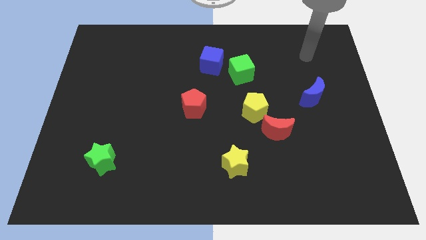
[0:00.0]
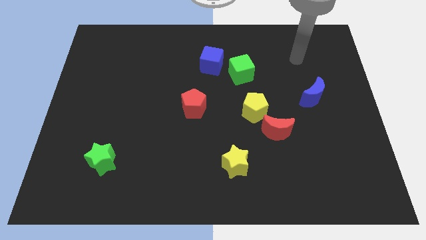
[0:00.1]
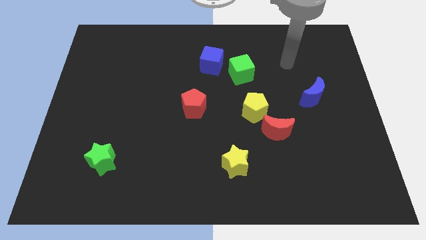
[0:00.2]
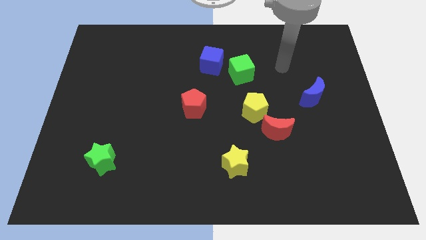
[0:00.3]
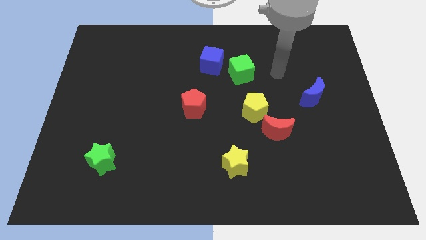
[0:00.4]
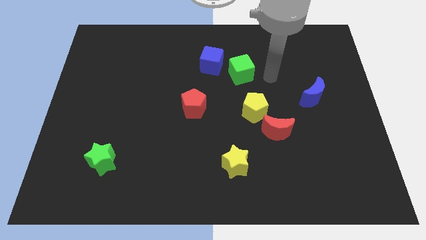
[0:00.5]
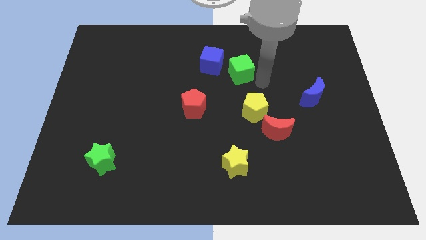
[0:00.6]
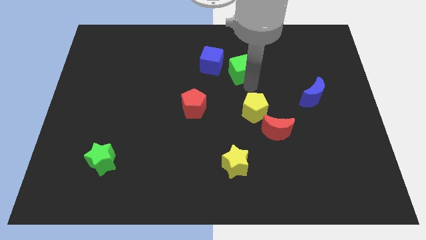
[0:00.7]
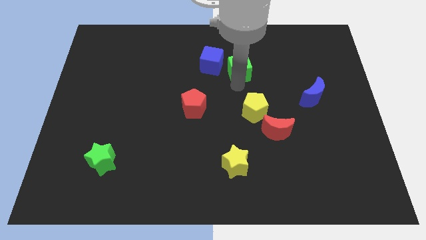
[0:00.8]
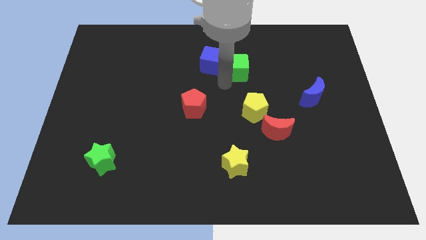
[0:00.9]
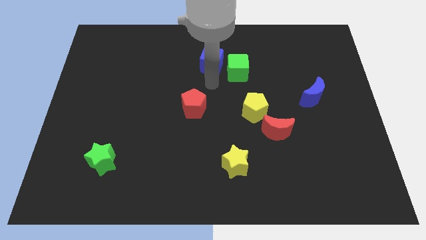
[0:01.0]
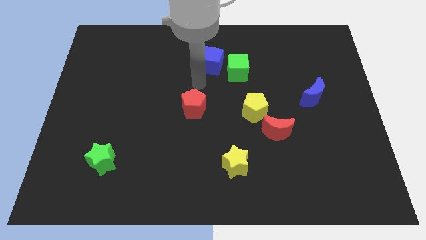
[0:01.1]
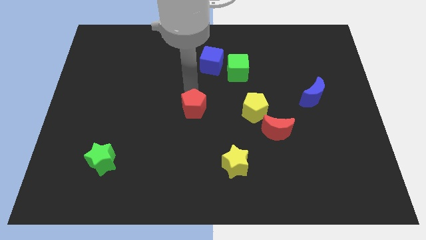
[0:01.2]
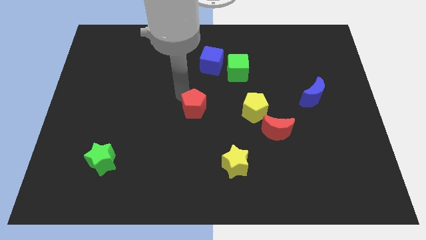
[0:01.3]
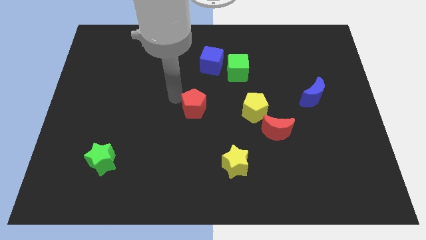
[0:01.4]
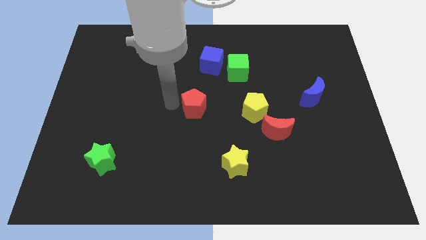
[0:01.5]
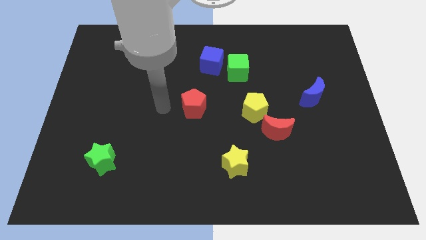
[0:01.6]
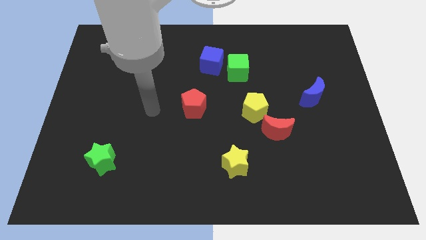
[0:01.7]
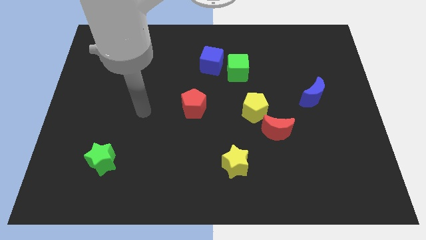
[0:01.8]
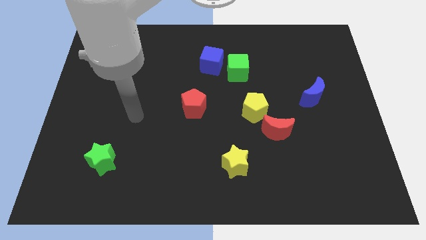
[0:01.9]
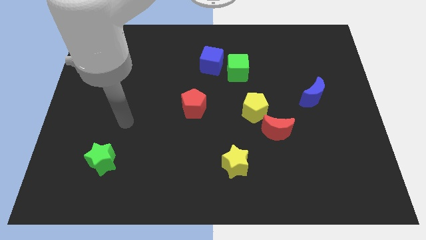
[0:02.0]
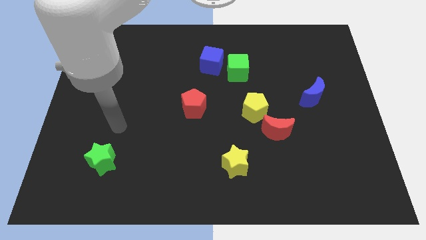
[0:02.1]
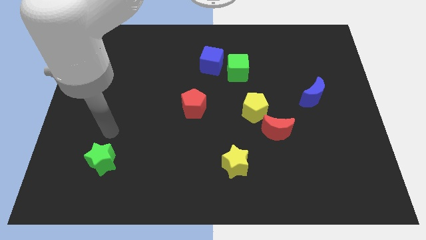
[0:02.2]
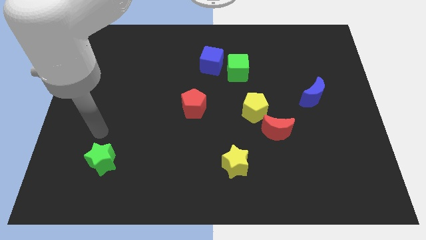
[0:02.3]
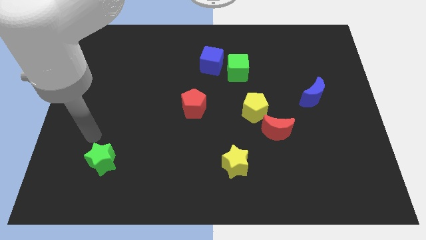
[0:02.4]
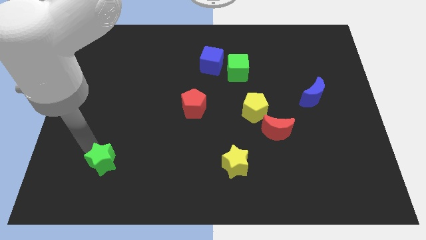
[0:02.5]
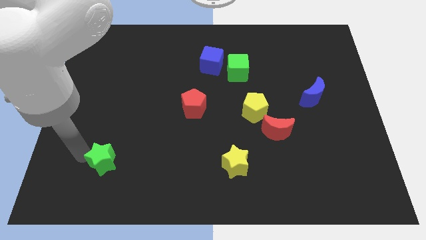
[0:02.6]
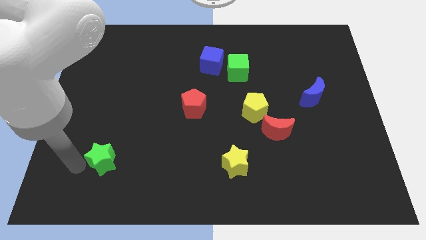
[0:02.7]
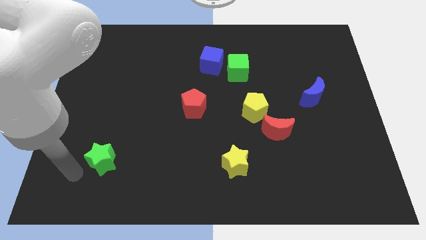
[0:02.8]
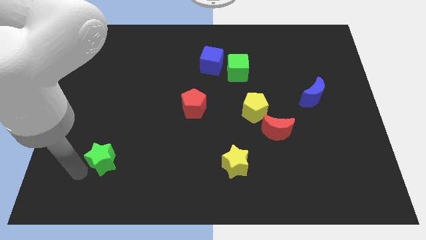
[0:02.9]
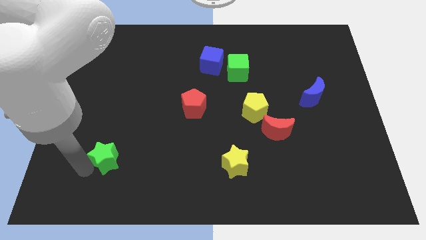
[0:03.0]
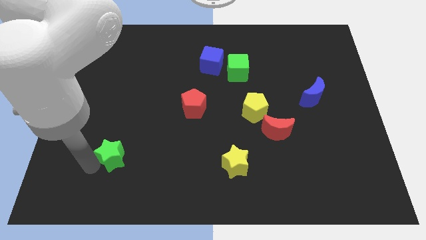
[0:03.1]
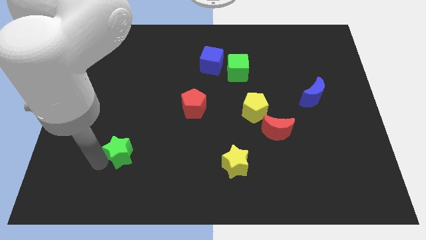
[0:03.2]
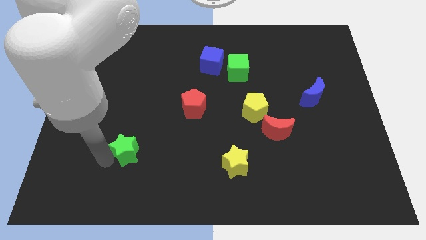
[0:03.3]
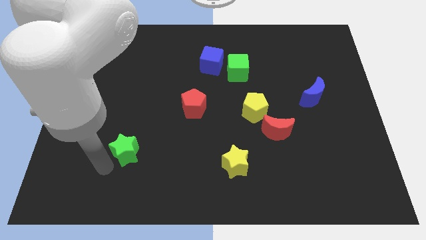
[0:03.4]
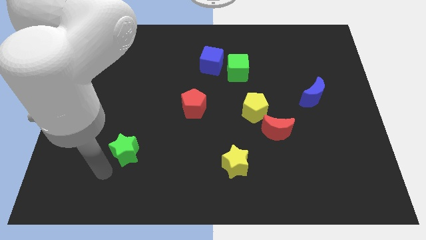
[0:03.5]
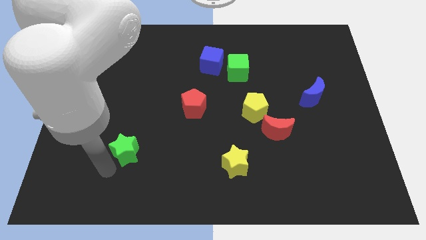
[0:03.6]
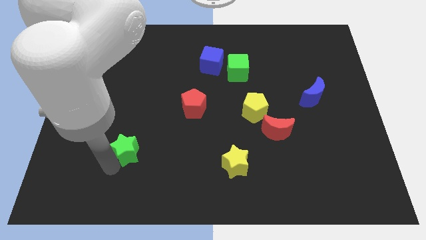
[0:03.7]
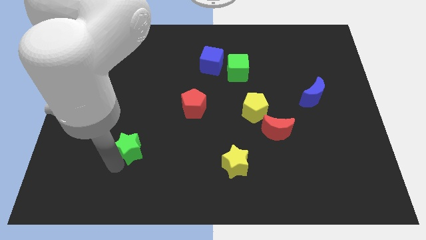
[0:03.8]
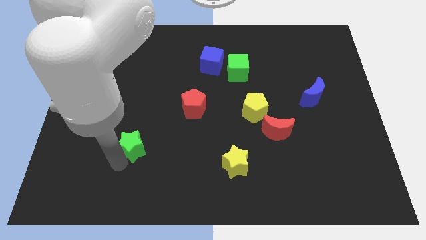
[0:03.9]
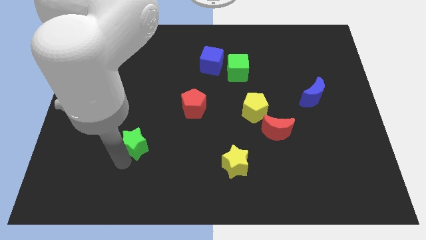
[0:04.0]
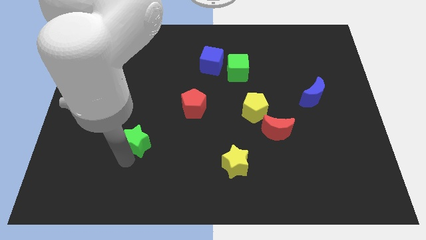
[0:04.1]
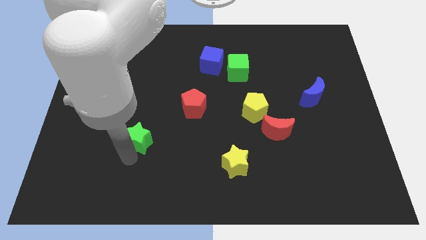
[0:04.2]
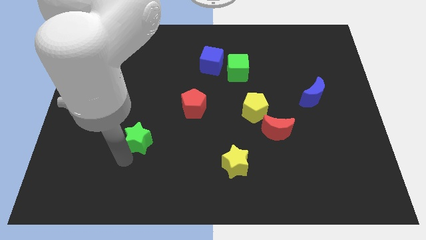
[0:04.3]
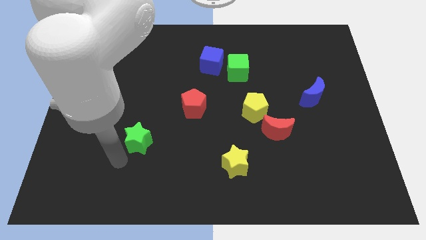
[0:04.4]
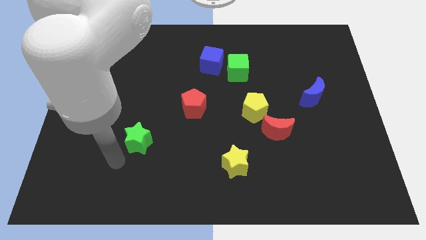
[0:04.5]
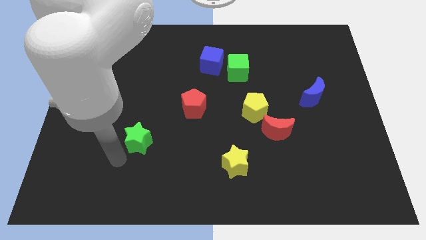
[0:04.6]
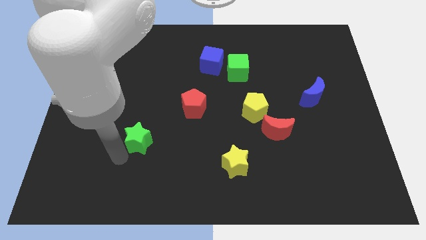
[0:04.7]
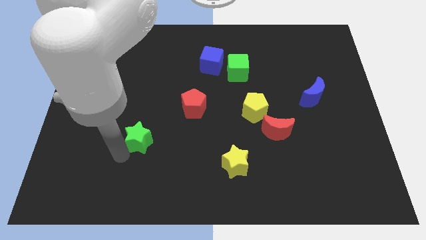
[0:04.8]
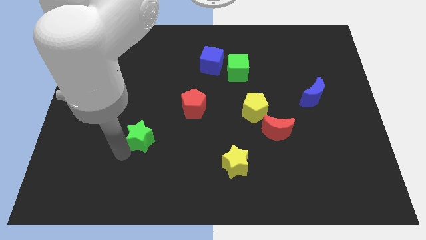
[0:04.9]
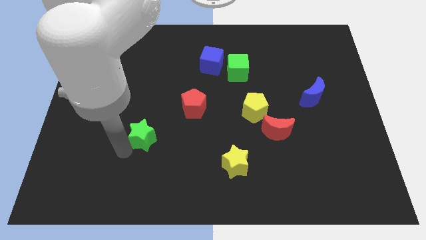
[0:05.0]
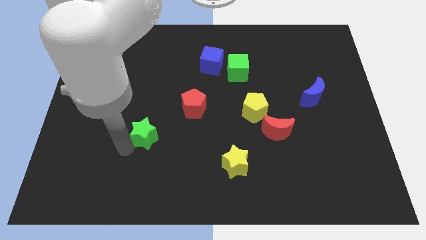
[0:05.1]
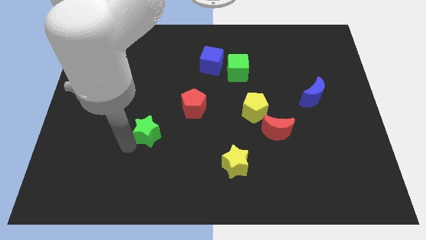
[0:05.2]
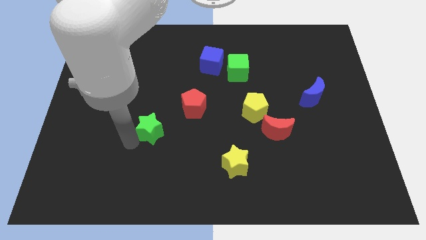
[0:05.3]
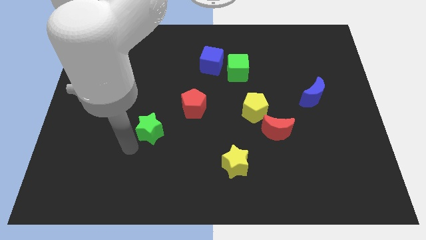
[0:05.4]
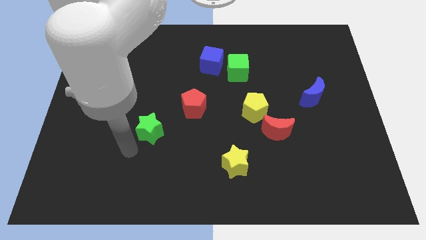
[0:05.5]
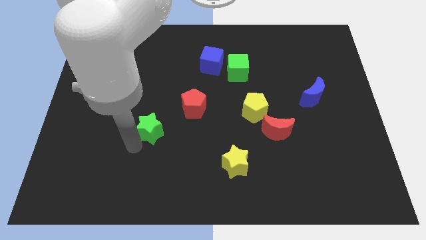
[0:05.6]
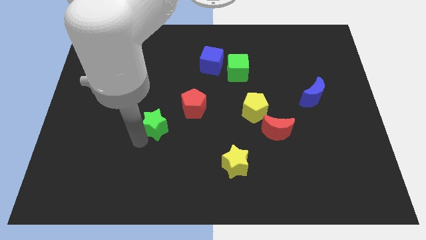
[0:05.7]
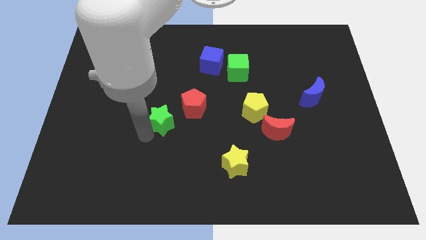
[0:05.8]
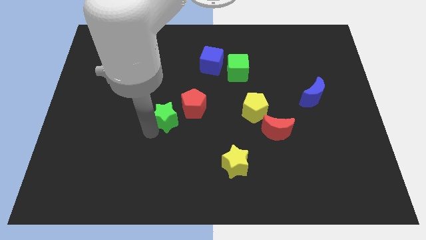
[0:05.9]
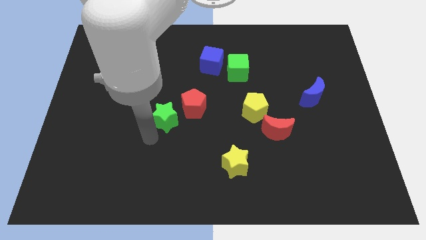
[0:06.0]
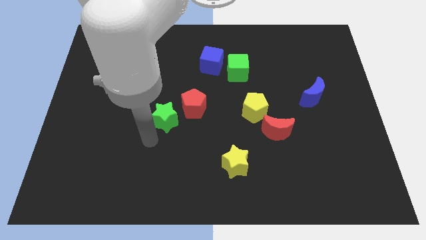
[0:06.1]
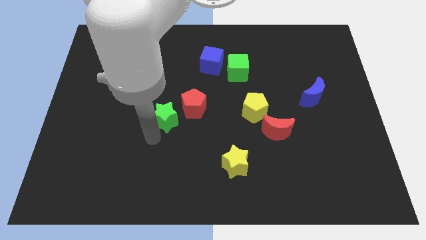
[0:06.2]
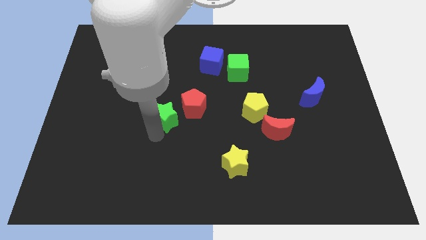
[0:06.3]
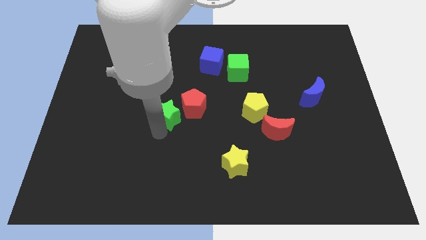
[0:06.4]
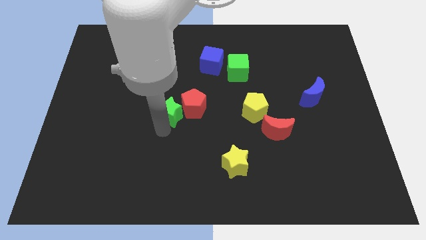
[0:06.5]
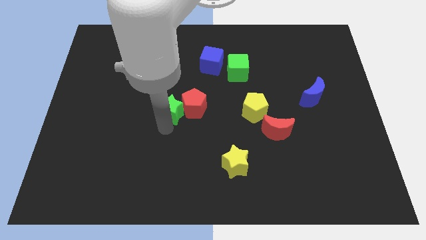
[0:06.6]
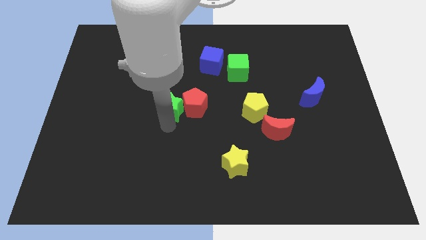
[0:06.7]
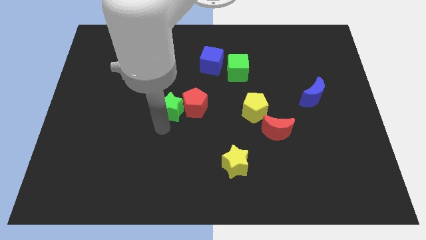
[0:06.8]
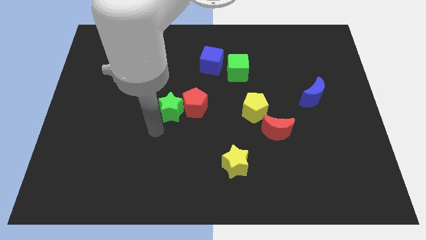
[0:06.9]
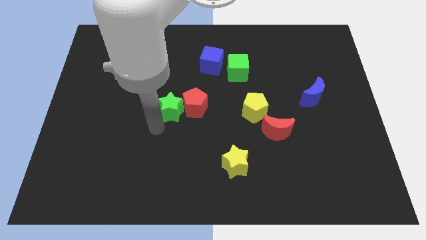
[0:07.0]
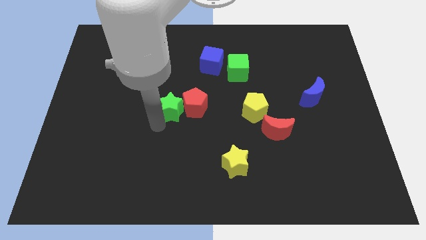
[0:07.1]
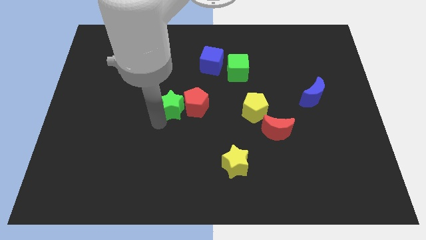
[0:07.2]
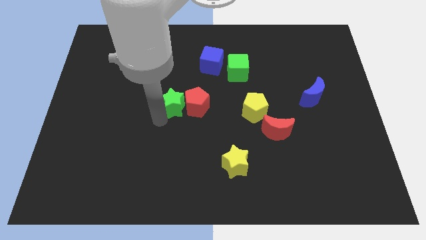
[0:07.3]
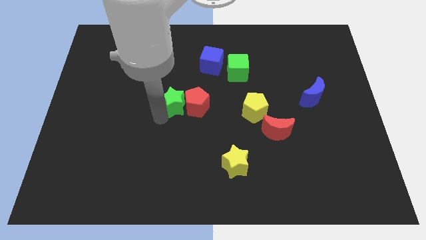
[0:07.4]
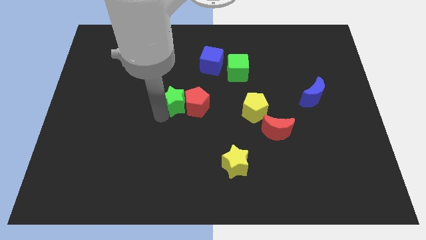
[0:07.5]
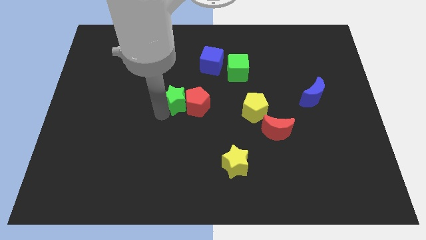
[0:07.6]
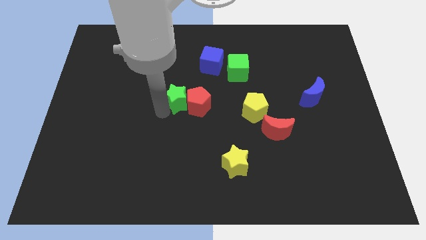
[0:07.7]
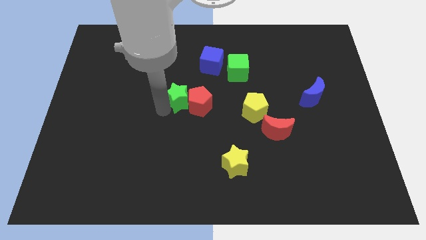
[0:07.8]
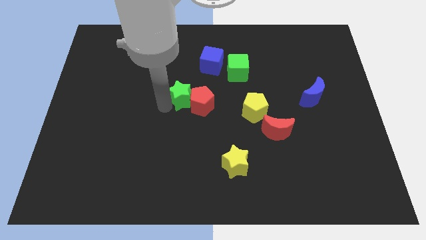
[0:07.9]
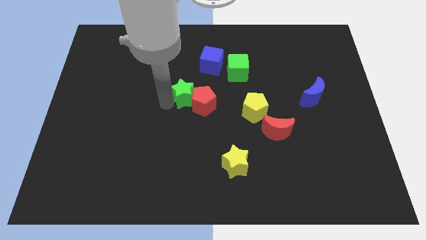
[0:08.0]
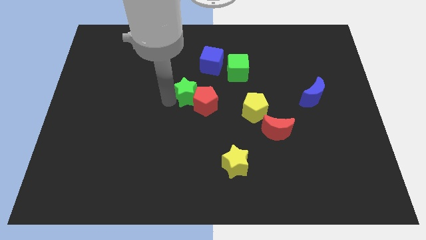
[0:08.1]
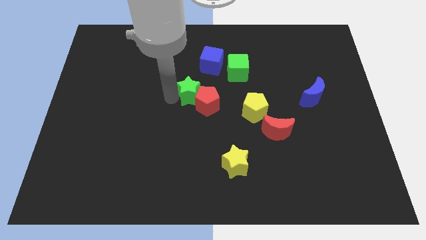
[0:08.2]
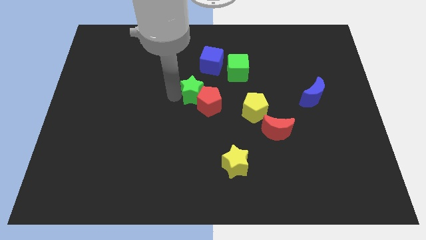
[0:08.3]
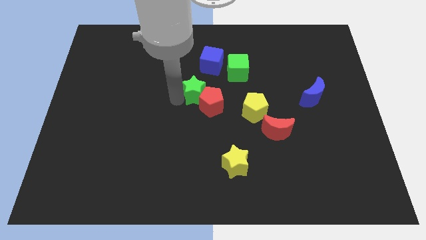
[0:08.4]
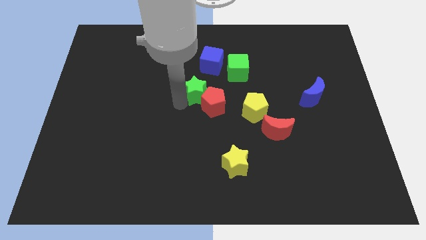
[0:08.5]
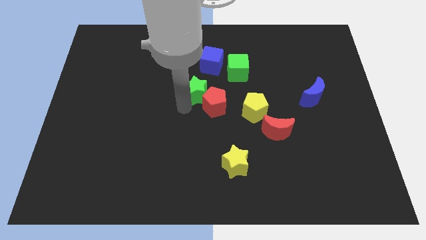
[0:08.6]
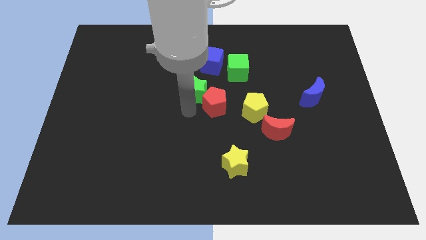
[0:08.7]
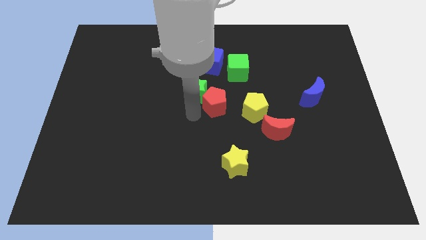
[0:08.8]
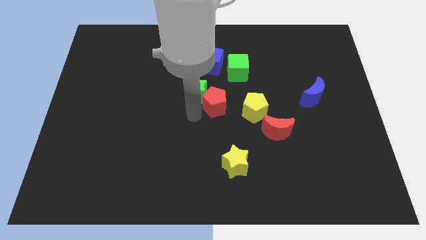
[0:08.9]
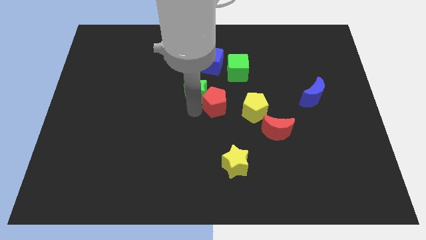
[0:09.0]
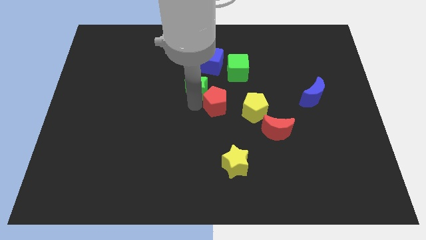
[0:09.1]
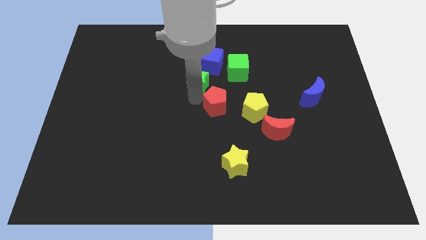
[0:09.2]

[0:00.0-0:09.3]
slide the green star to the left of the green cube
